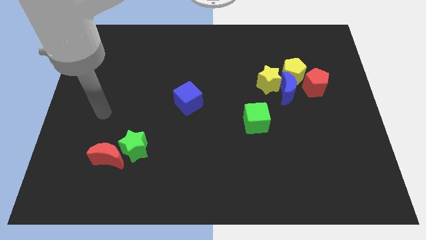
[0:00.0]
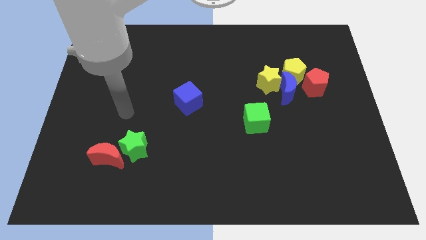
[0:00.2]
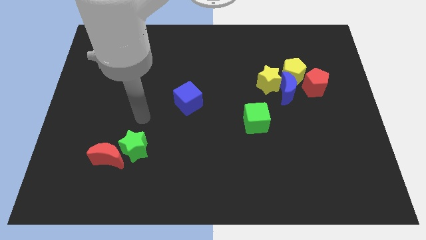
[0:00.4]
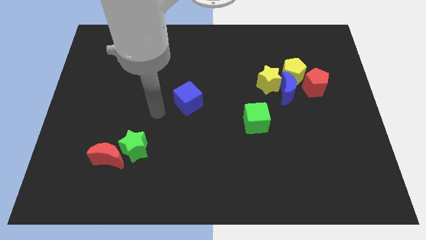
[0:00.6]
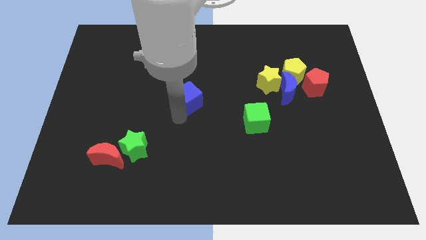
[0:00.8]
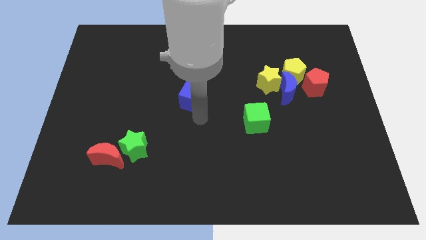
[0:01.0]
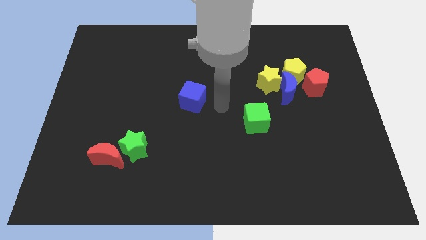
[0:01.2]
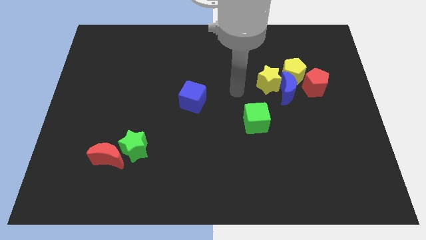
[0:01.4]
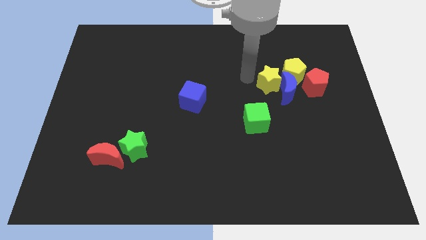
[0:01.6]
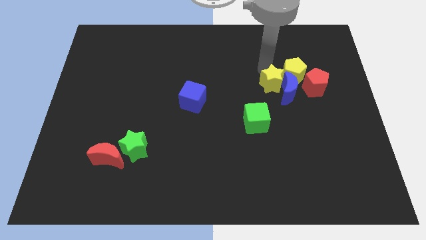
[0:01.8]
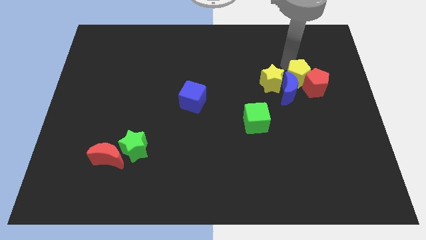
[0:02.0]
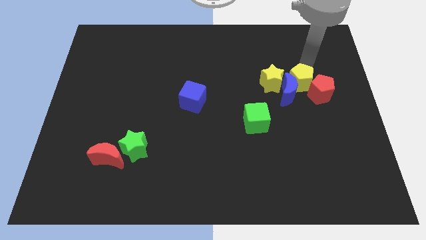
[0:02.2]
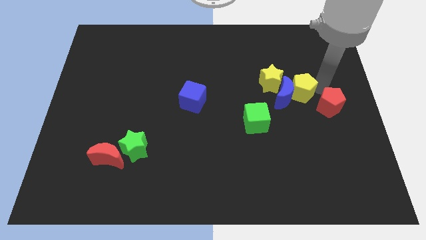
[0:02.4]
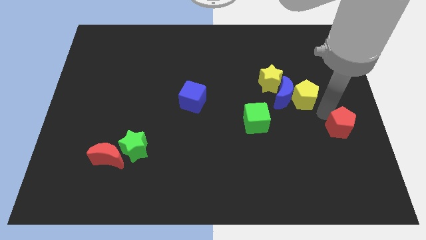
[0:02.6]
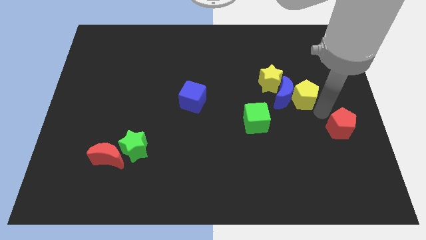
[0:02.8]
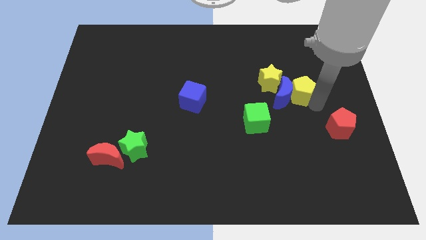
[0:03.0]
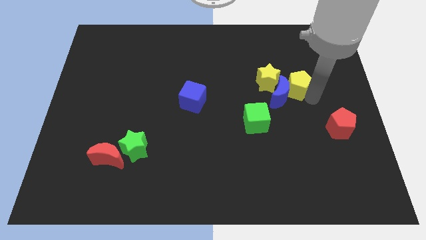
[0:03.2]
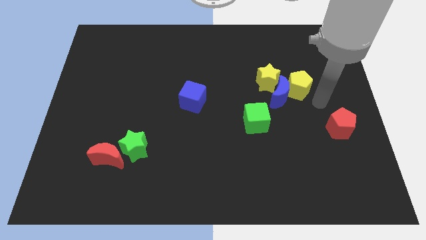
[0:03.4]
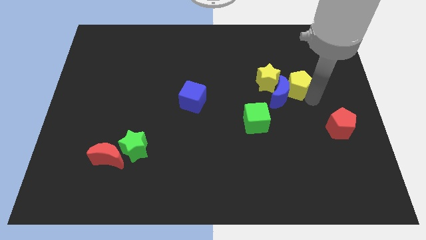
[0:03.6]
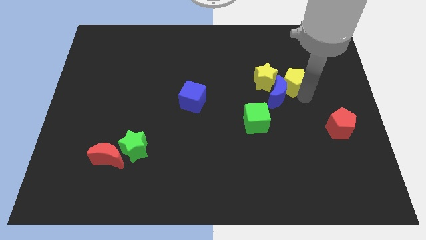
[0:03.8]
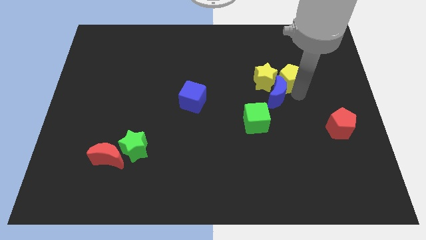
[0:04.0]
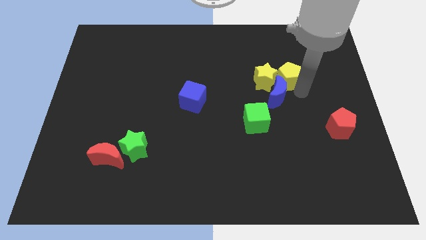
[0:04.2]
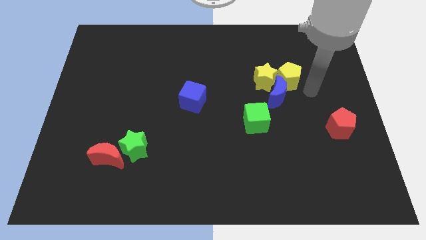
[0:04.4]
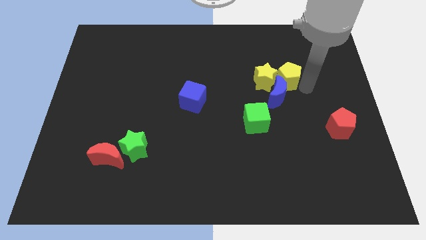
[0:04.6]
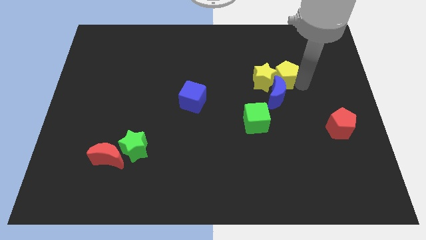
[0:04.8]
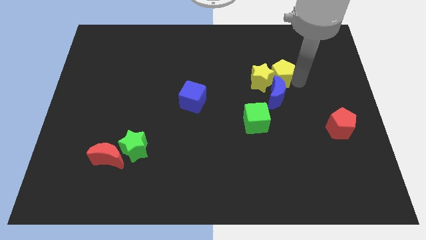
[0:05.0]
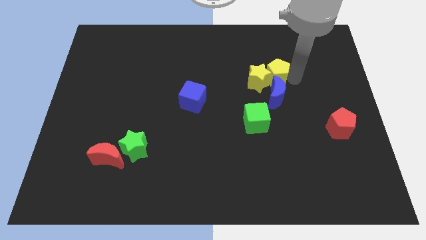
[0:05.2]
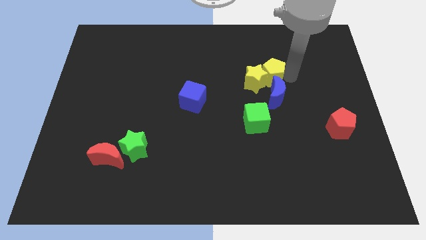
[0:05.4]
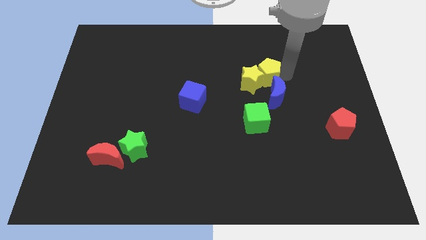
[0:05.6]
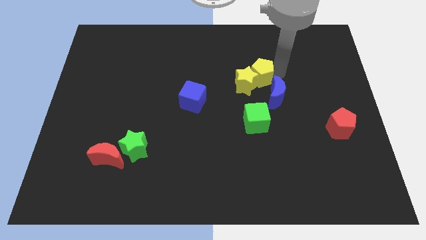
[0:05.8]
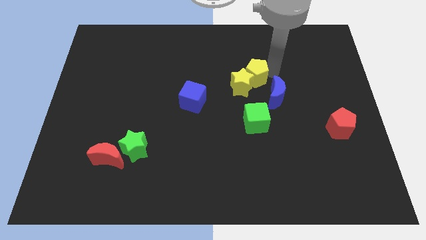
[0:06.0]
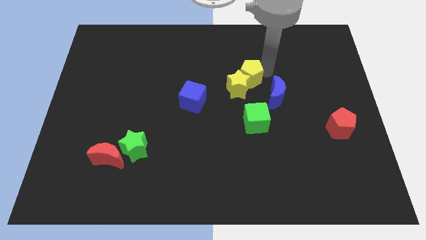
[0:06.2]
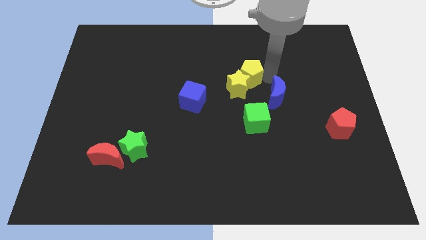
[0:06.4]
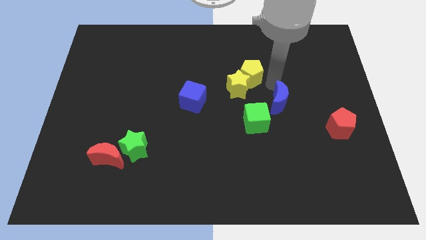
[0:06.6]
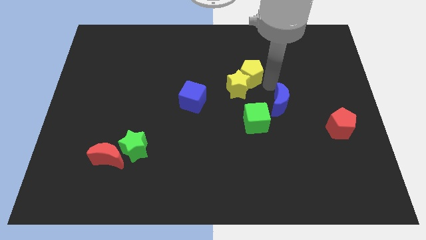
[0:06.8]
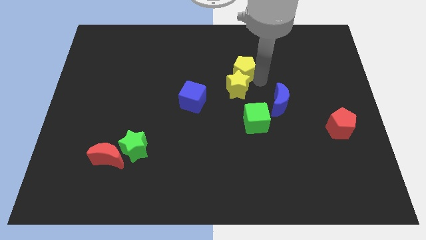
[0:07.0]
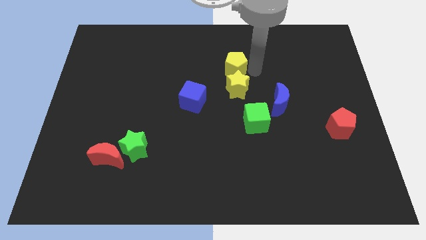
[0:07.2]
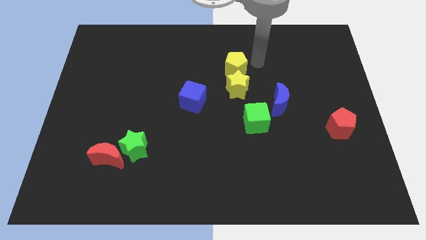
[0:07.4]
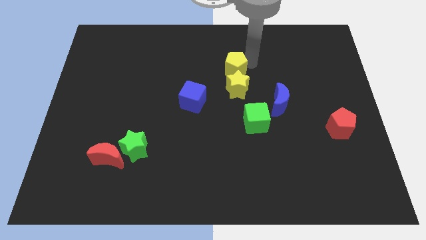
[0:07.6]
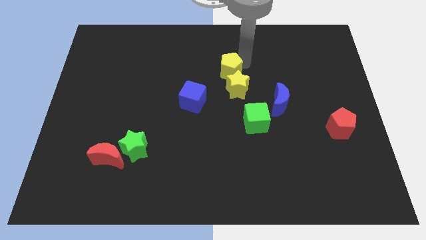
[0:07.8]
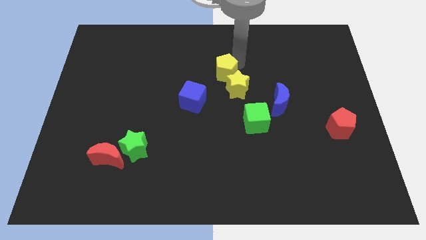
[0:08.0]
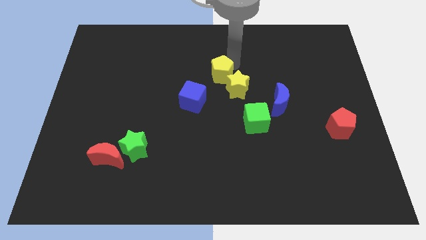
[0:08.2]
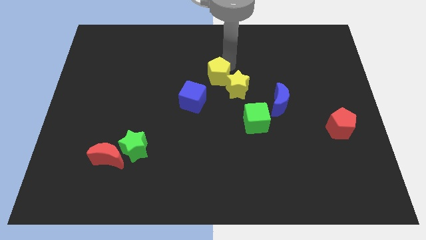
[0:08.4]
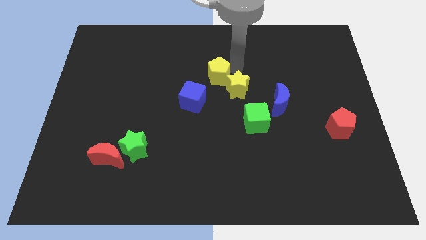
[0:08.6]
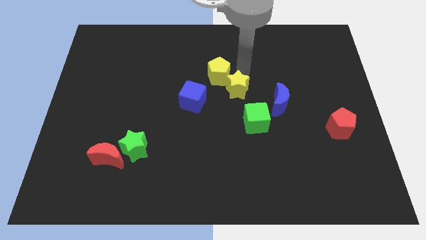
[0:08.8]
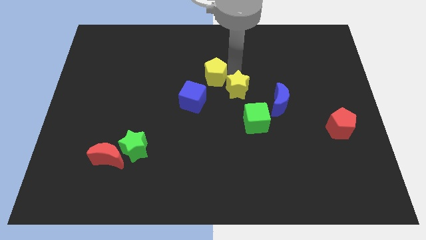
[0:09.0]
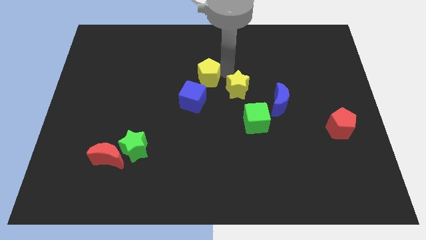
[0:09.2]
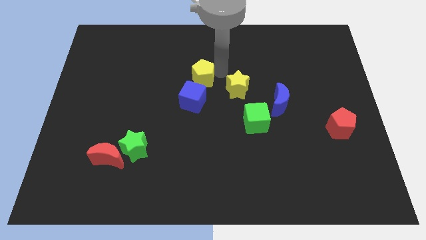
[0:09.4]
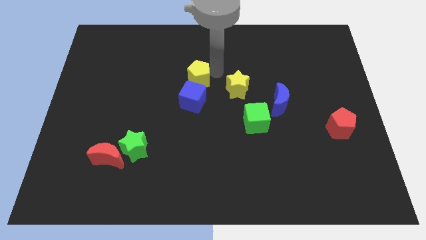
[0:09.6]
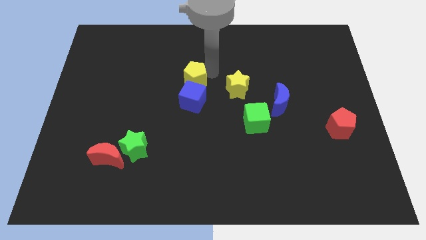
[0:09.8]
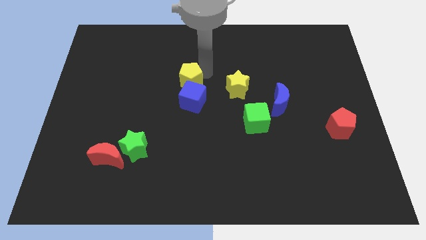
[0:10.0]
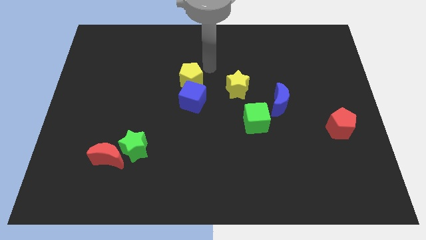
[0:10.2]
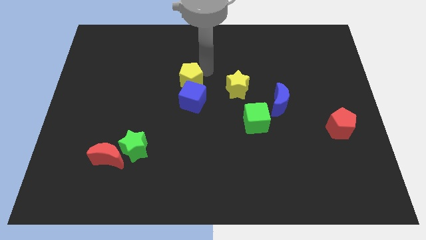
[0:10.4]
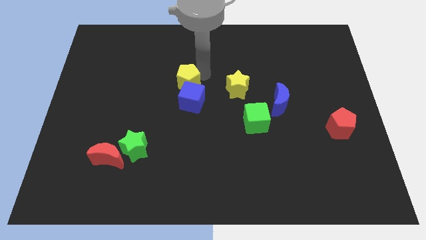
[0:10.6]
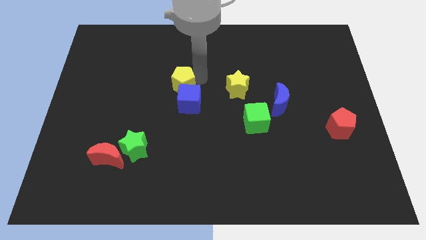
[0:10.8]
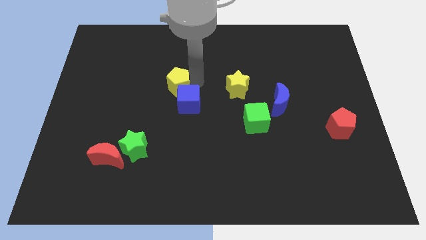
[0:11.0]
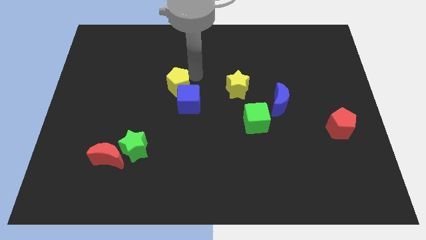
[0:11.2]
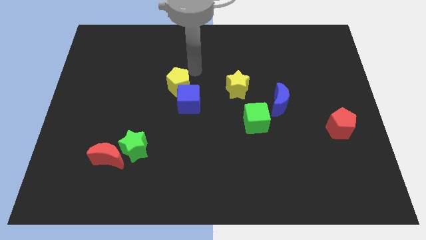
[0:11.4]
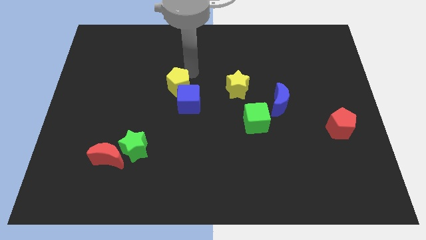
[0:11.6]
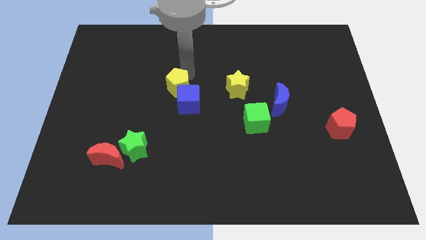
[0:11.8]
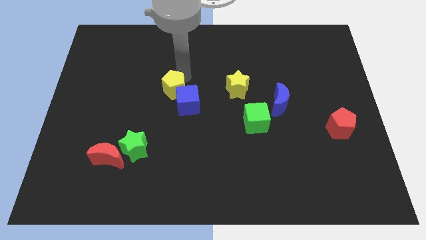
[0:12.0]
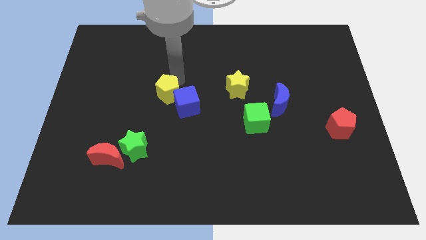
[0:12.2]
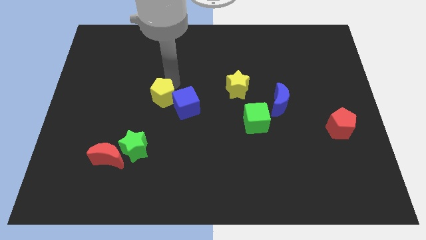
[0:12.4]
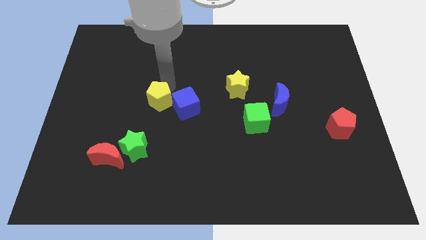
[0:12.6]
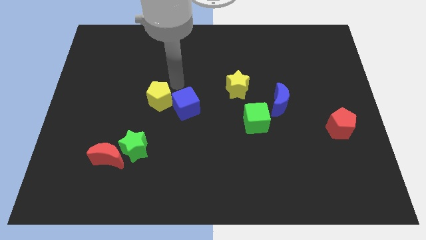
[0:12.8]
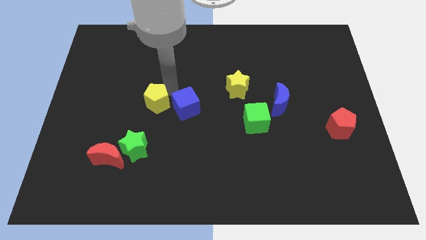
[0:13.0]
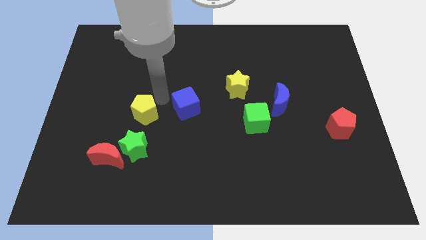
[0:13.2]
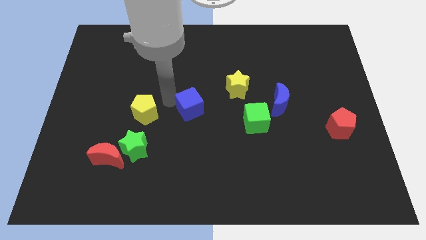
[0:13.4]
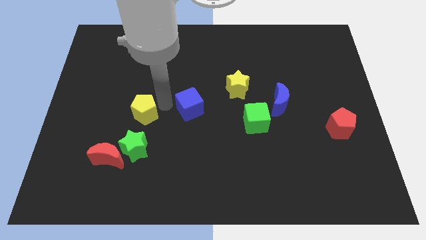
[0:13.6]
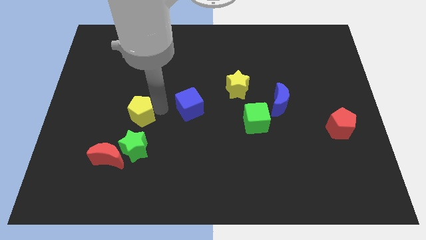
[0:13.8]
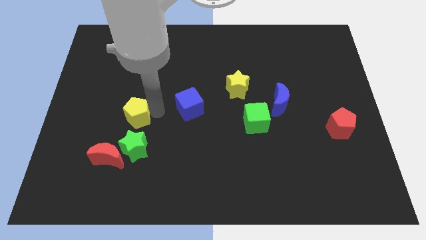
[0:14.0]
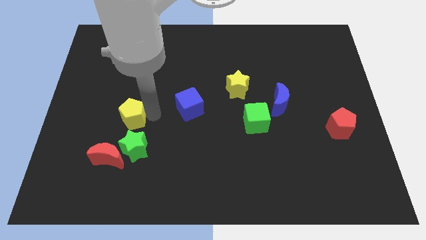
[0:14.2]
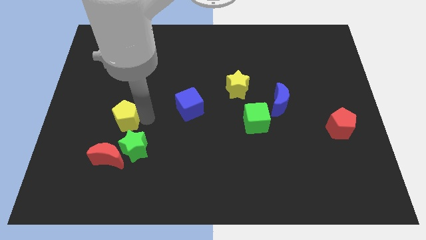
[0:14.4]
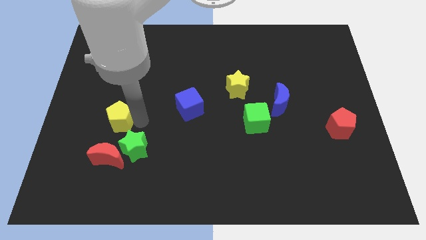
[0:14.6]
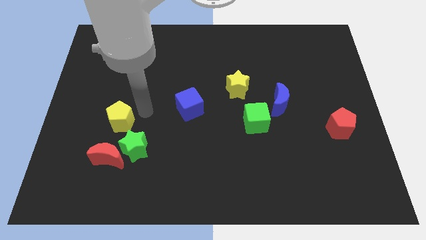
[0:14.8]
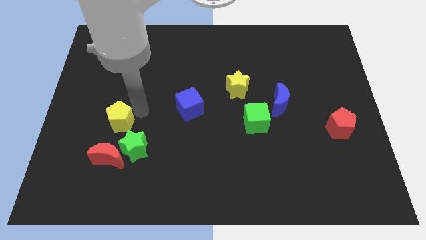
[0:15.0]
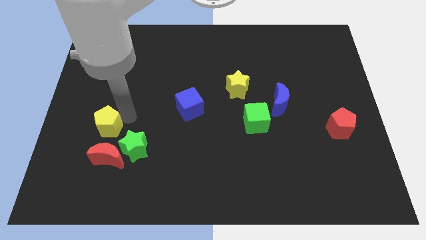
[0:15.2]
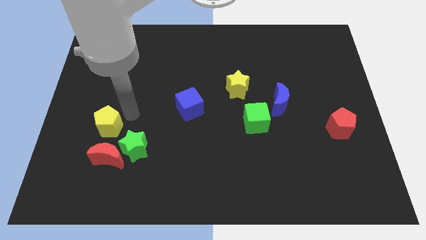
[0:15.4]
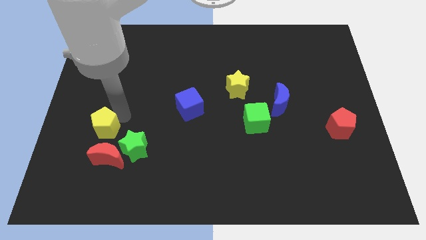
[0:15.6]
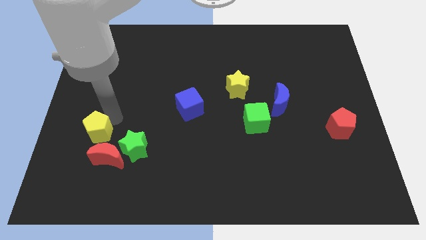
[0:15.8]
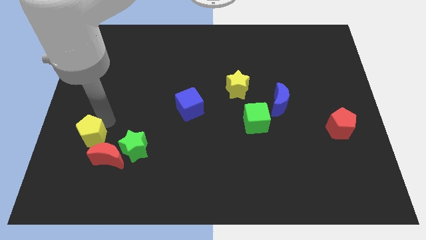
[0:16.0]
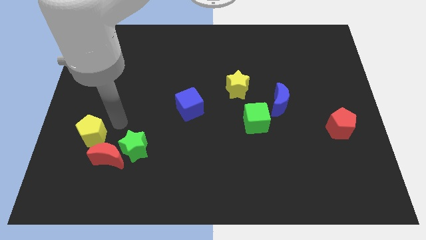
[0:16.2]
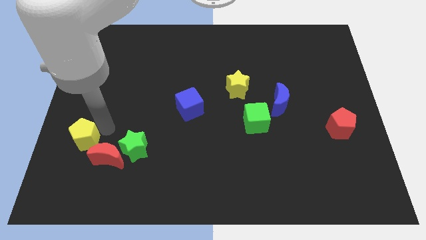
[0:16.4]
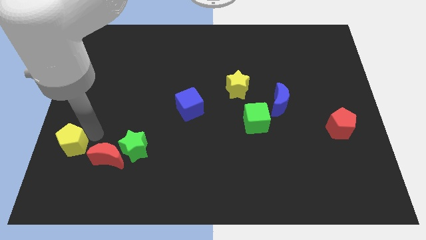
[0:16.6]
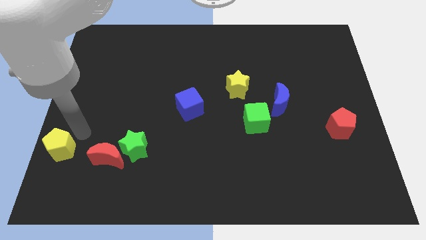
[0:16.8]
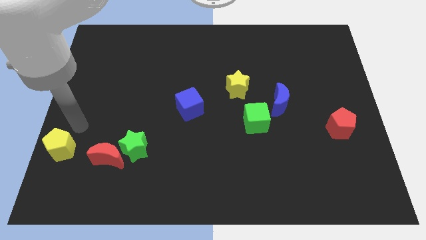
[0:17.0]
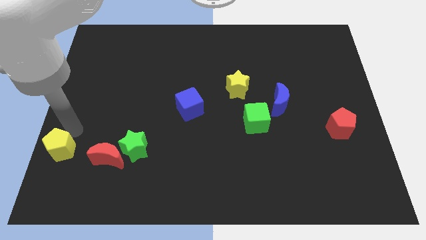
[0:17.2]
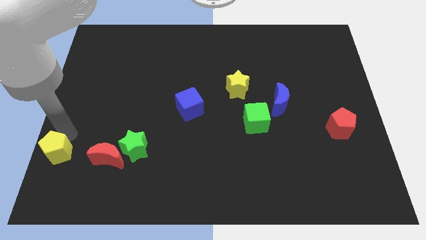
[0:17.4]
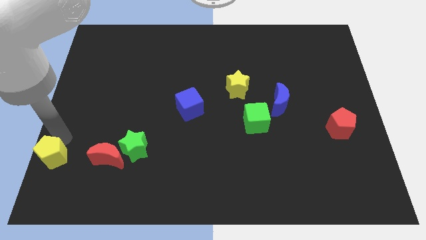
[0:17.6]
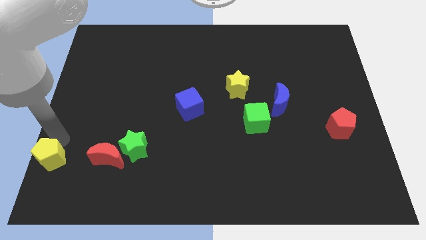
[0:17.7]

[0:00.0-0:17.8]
slide the yellow pentagon to the bottom left
